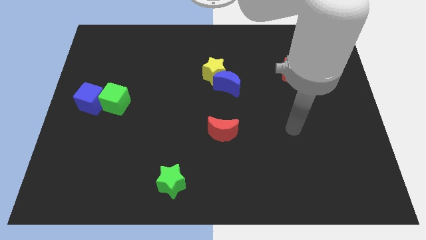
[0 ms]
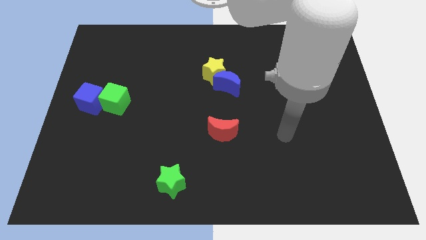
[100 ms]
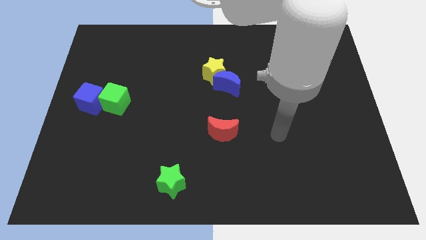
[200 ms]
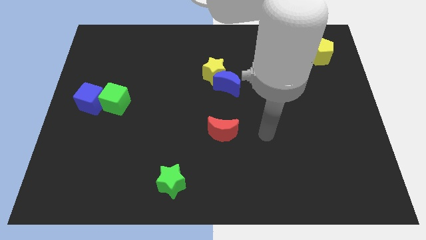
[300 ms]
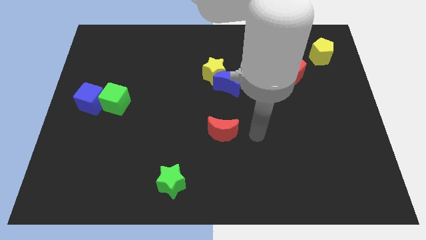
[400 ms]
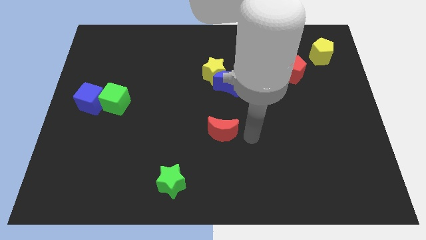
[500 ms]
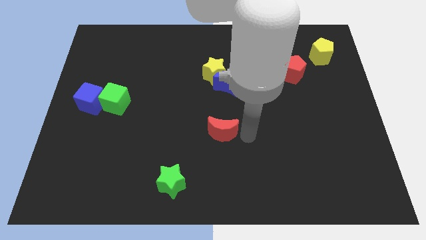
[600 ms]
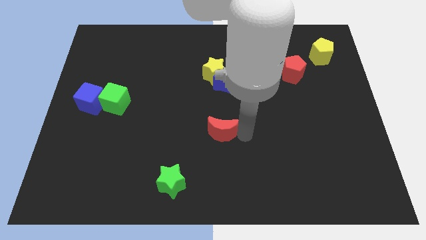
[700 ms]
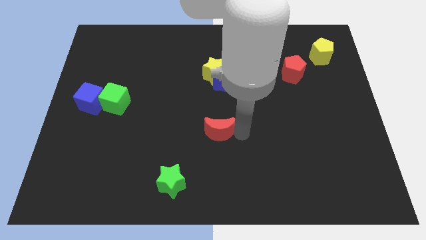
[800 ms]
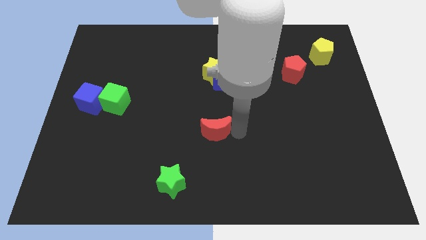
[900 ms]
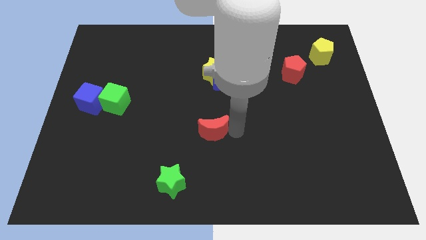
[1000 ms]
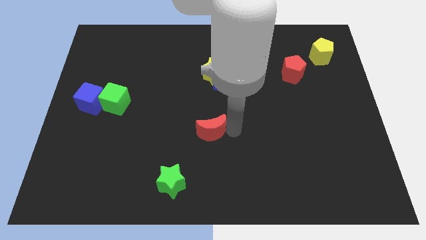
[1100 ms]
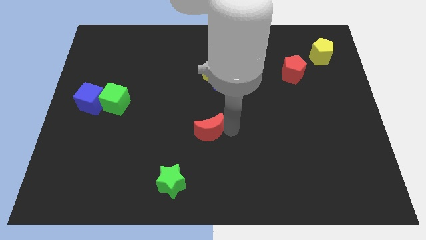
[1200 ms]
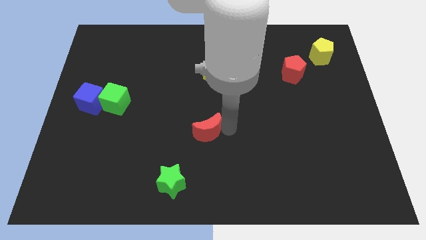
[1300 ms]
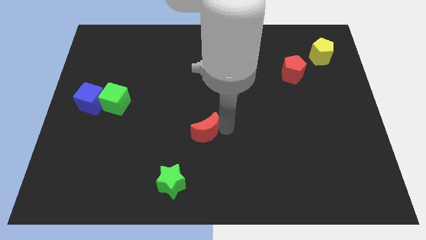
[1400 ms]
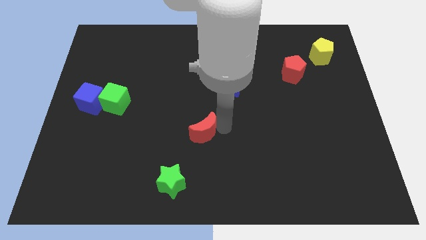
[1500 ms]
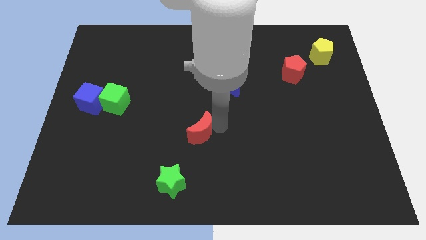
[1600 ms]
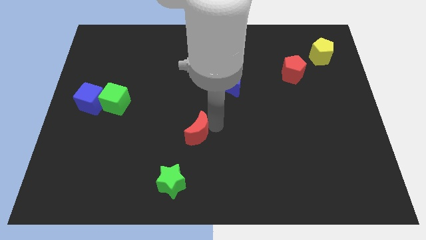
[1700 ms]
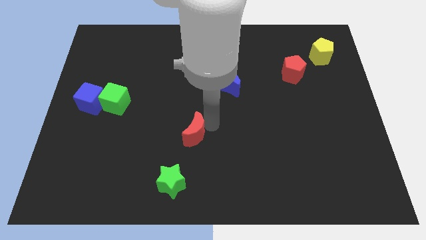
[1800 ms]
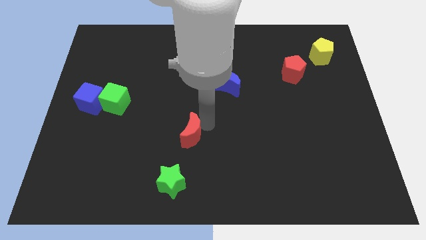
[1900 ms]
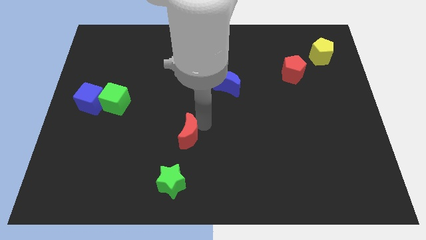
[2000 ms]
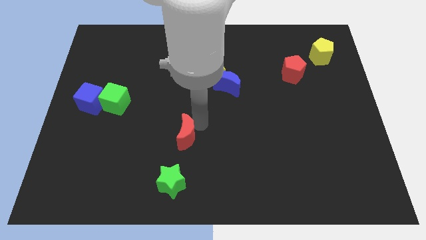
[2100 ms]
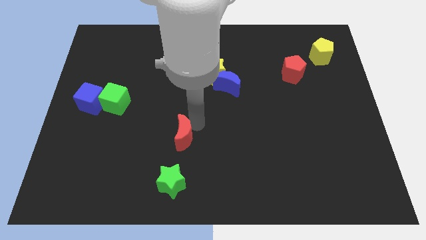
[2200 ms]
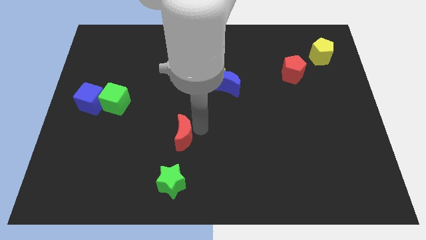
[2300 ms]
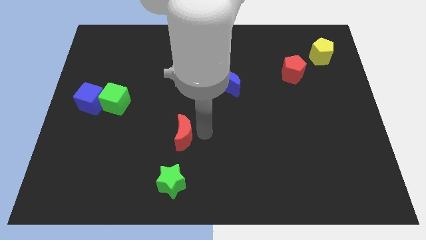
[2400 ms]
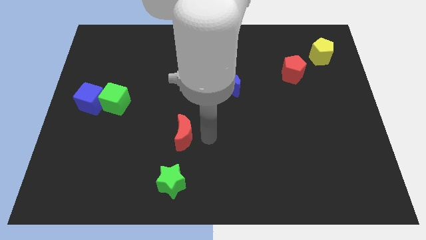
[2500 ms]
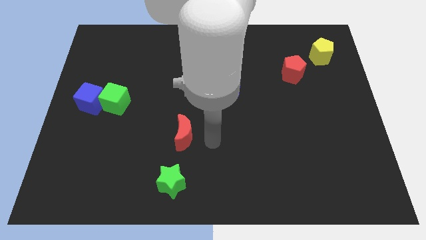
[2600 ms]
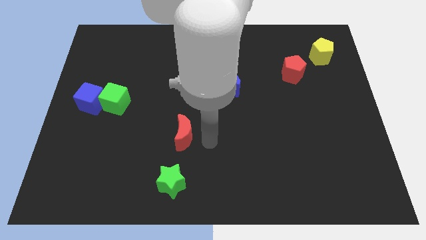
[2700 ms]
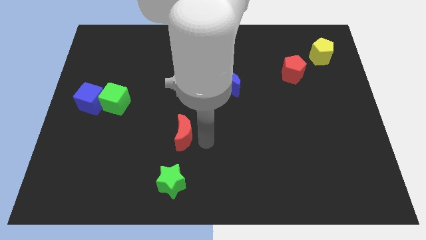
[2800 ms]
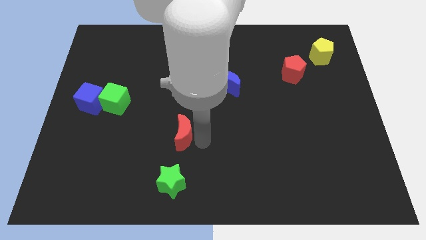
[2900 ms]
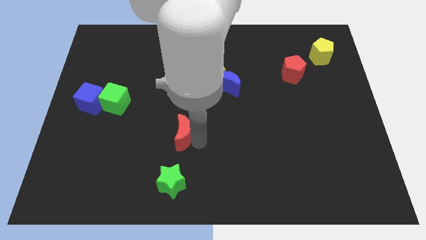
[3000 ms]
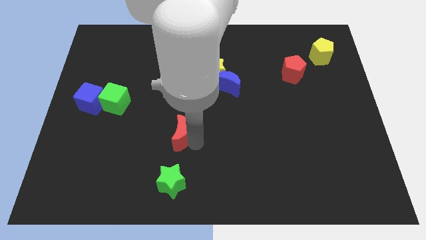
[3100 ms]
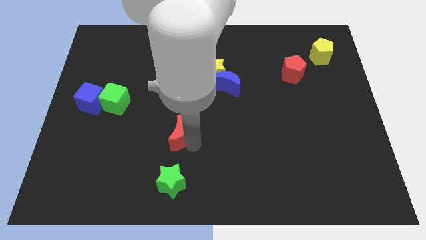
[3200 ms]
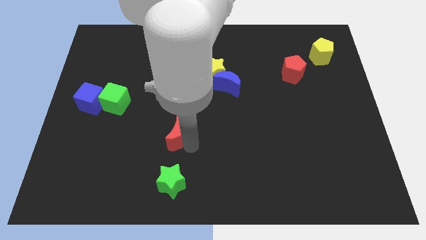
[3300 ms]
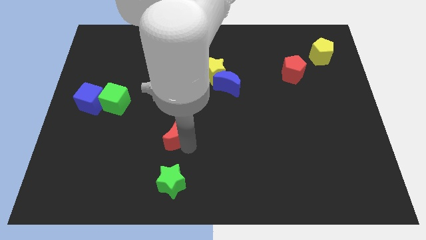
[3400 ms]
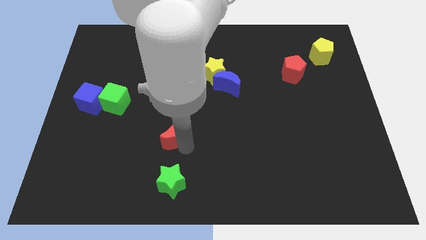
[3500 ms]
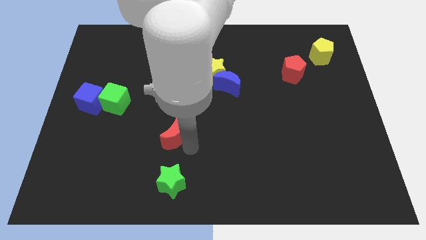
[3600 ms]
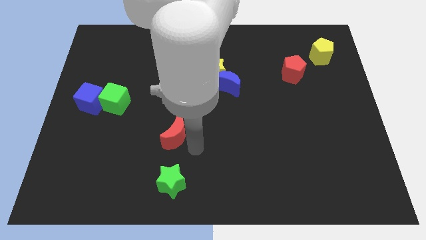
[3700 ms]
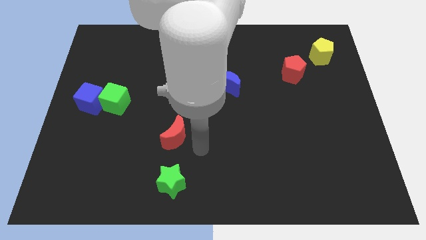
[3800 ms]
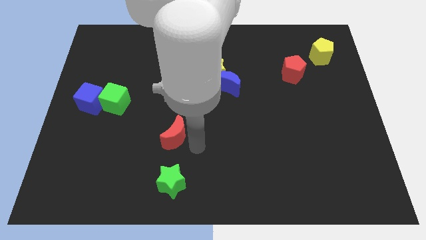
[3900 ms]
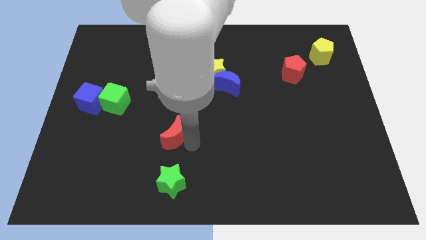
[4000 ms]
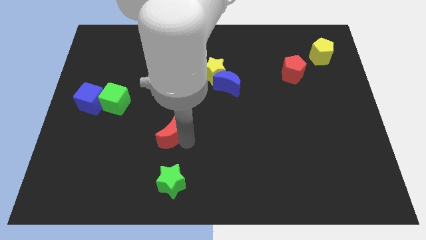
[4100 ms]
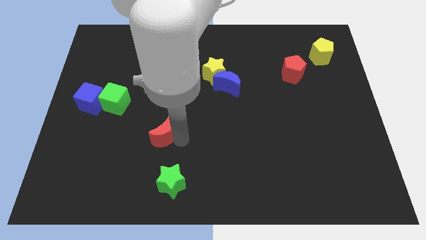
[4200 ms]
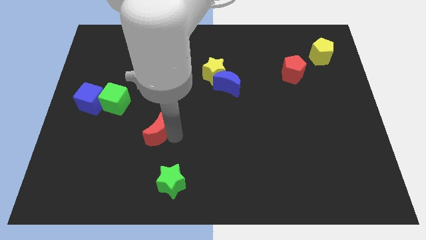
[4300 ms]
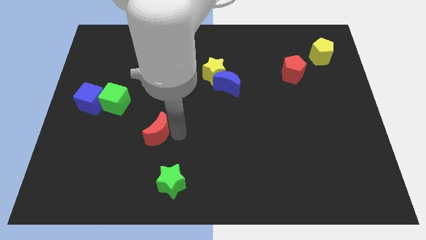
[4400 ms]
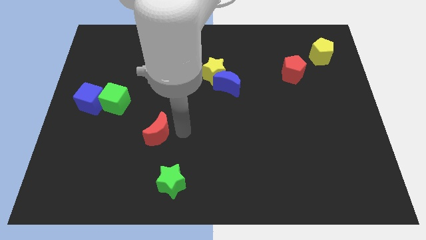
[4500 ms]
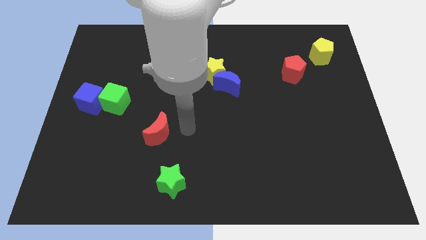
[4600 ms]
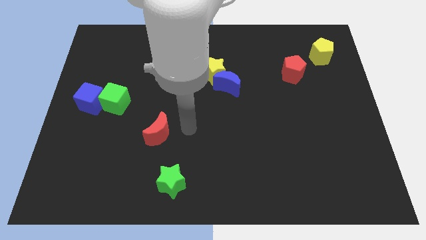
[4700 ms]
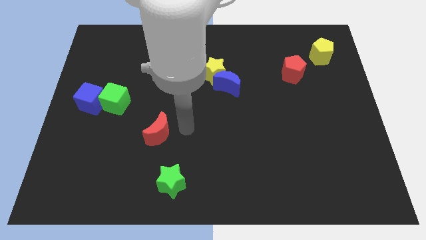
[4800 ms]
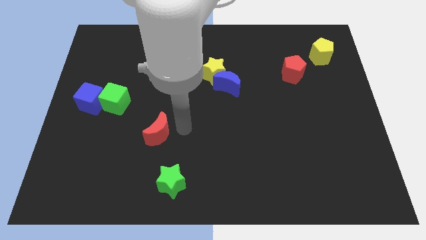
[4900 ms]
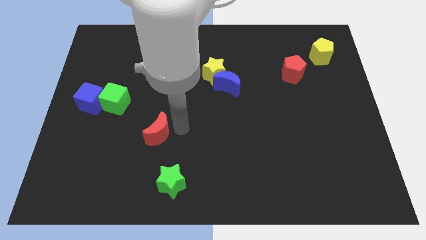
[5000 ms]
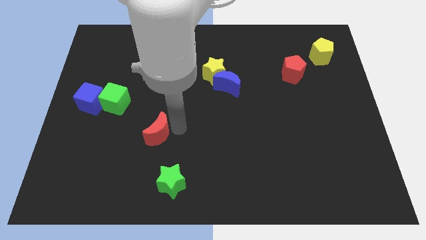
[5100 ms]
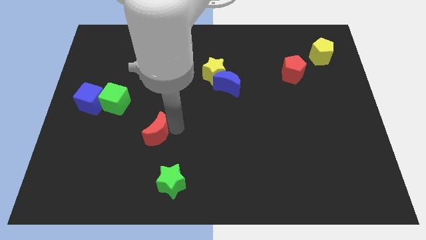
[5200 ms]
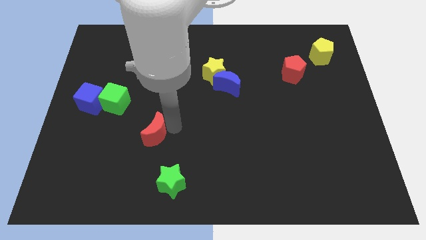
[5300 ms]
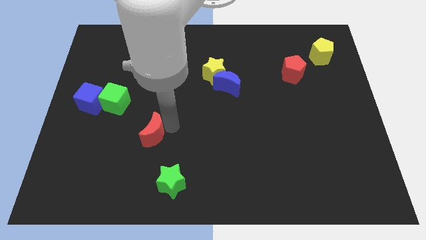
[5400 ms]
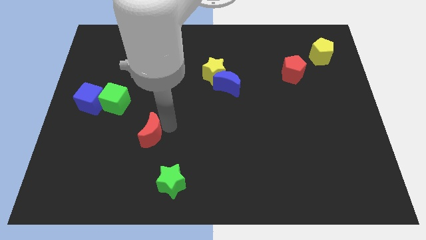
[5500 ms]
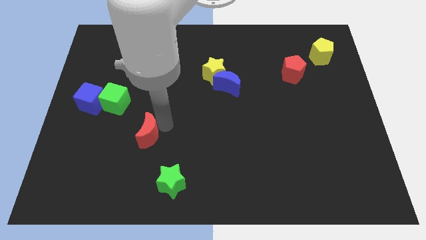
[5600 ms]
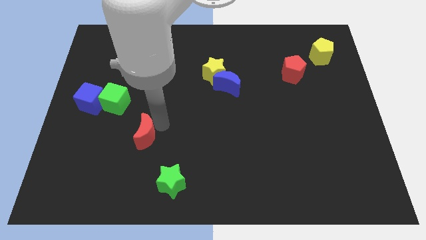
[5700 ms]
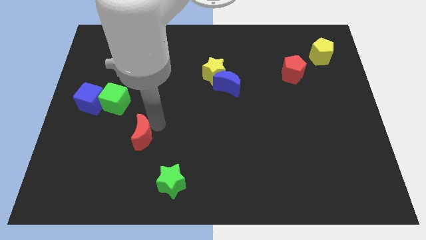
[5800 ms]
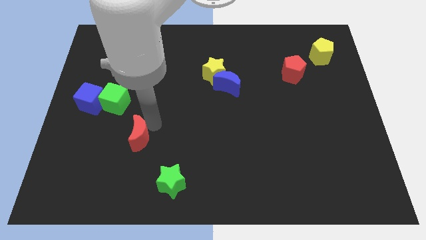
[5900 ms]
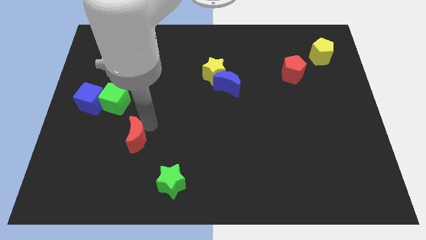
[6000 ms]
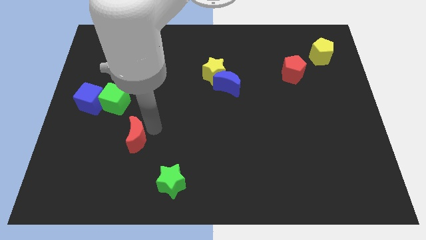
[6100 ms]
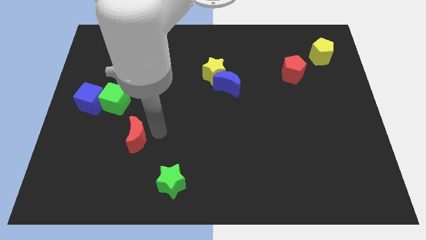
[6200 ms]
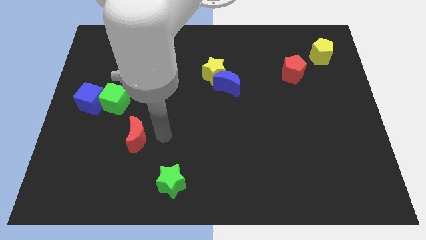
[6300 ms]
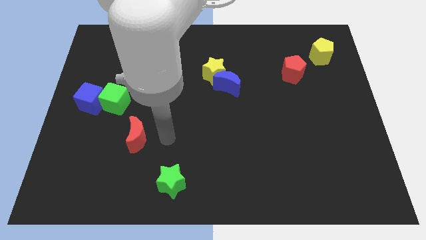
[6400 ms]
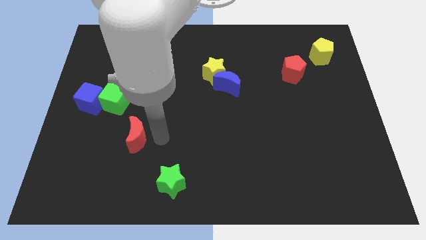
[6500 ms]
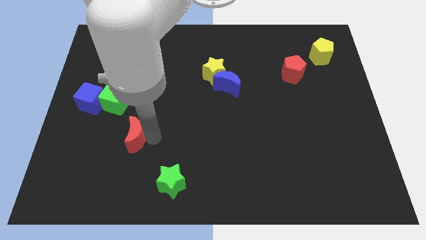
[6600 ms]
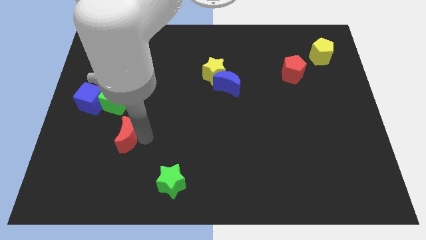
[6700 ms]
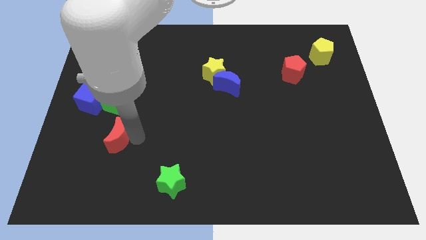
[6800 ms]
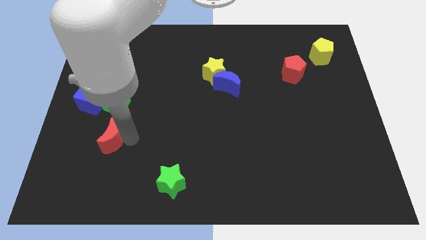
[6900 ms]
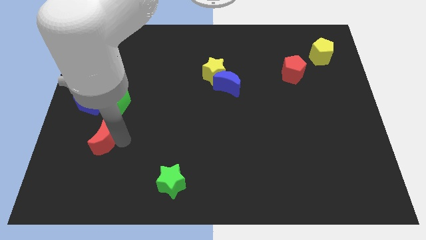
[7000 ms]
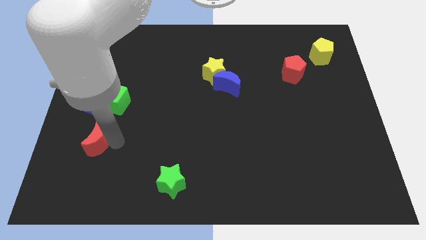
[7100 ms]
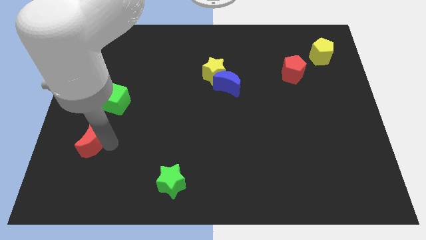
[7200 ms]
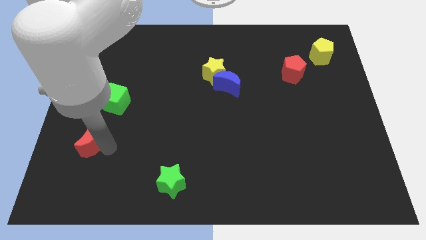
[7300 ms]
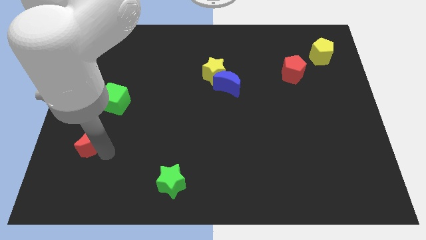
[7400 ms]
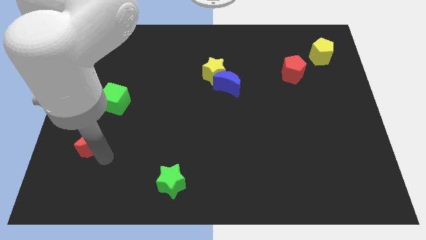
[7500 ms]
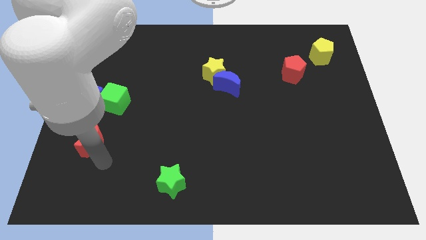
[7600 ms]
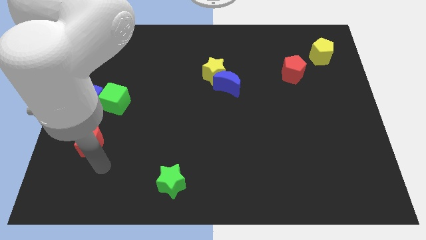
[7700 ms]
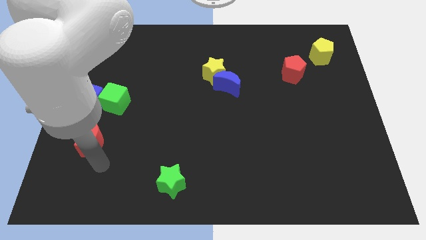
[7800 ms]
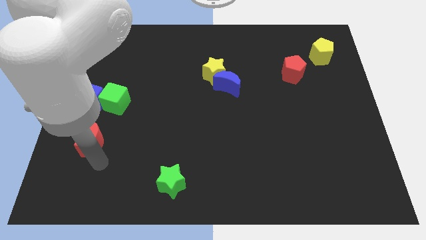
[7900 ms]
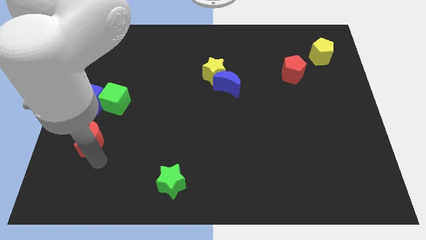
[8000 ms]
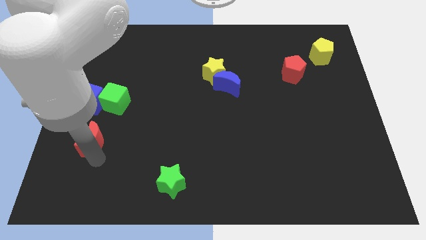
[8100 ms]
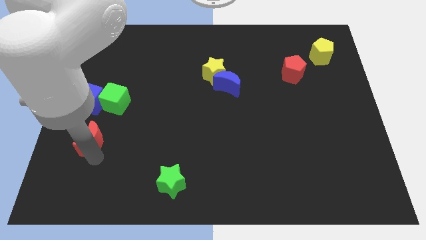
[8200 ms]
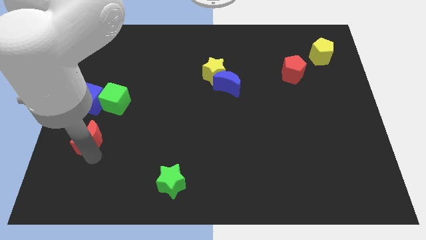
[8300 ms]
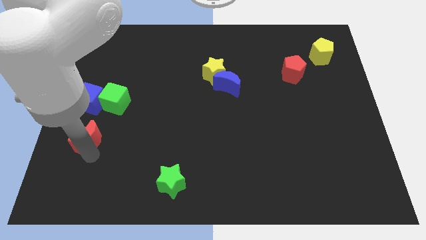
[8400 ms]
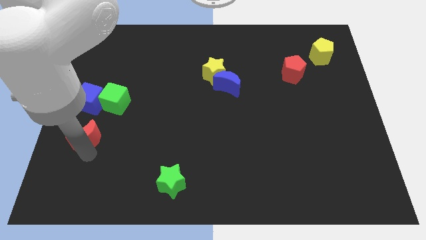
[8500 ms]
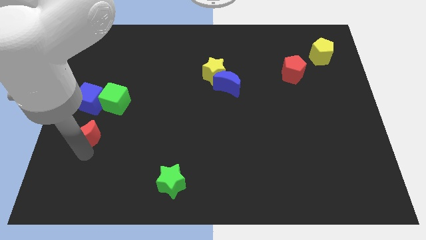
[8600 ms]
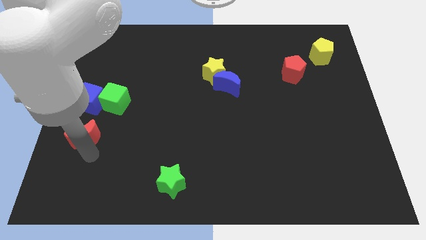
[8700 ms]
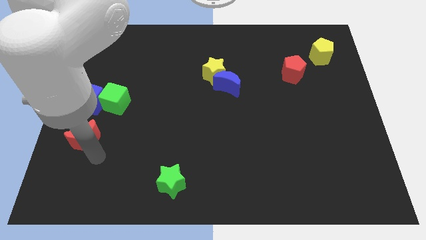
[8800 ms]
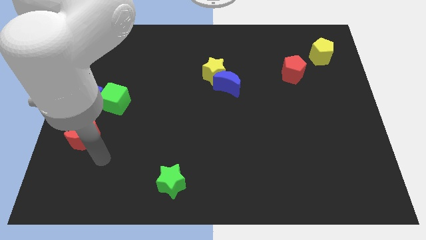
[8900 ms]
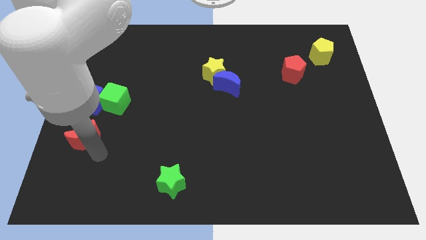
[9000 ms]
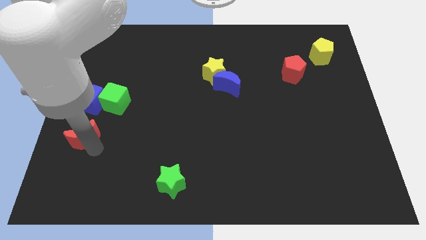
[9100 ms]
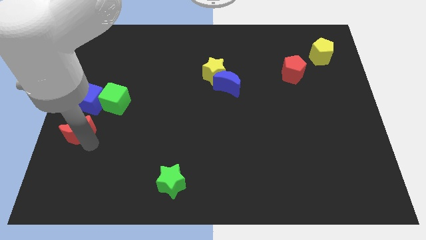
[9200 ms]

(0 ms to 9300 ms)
push the red moon to the center left
